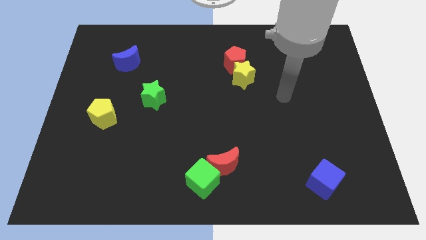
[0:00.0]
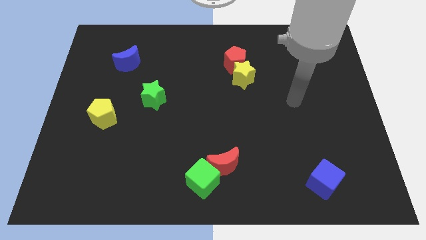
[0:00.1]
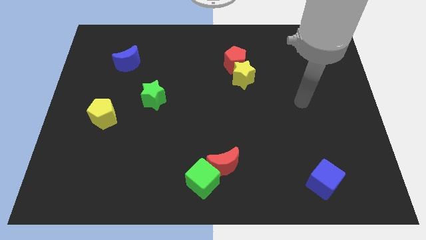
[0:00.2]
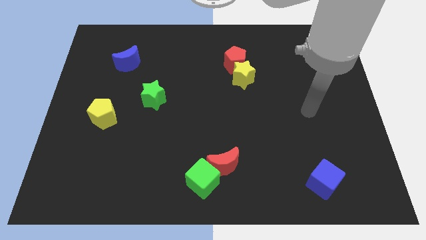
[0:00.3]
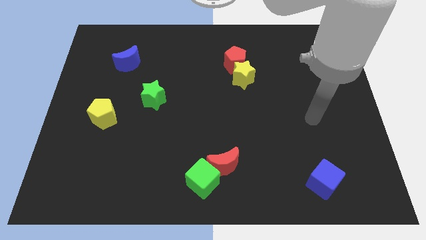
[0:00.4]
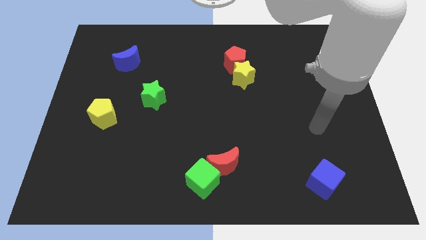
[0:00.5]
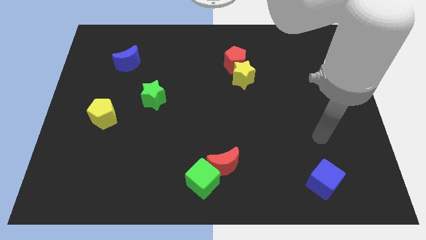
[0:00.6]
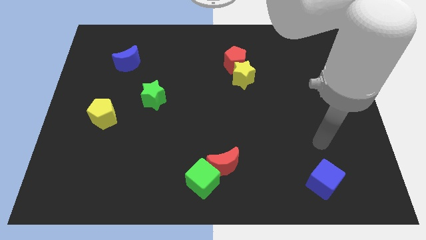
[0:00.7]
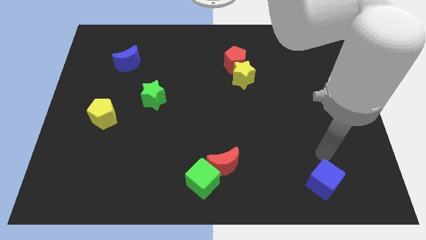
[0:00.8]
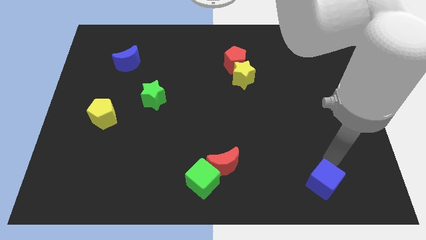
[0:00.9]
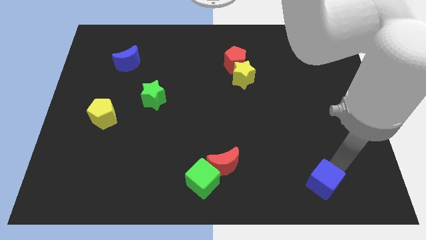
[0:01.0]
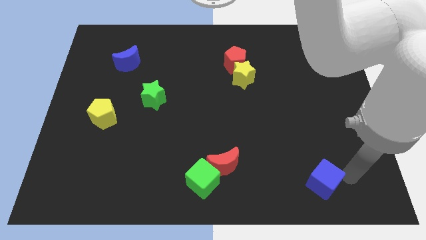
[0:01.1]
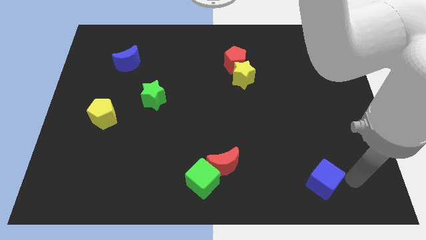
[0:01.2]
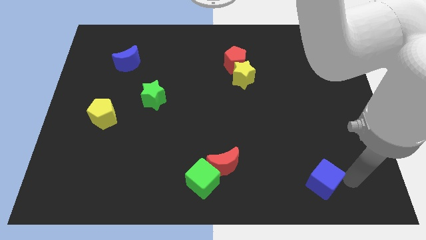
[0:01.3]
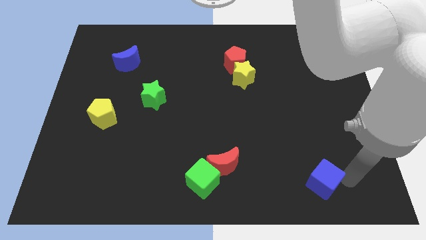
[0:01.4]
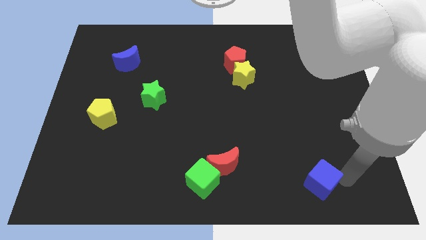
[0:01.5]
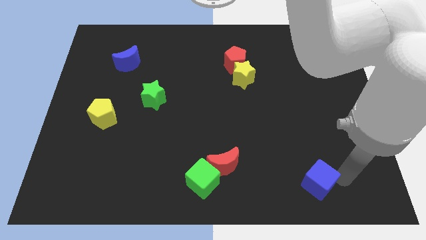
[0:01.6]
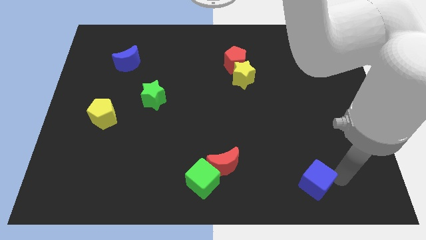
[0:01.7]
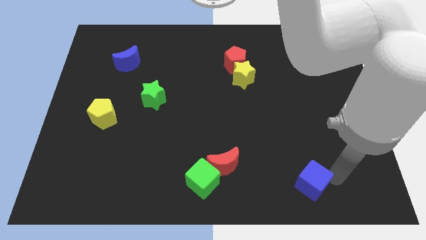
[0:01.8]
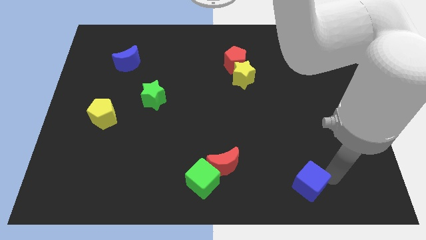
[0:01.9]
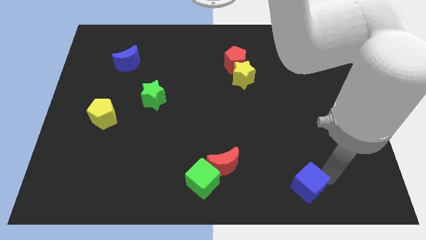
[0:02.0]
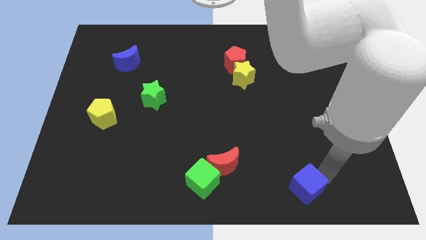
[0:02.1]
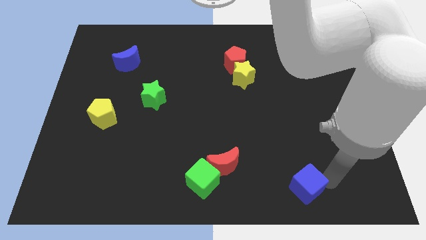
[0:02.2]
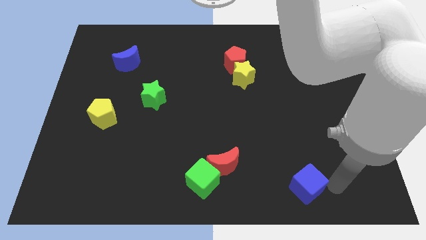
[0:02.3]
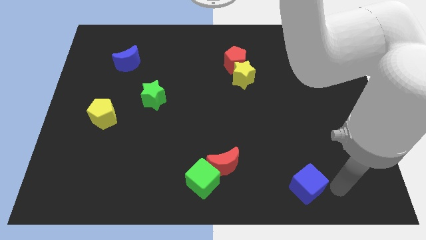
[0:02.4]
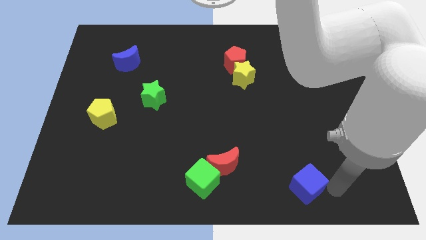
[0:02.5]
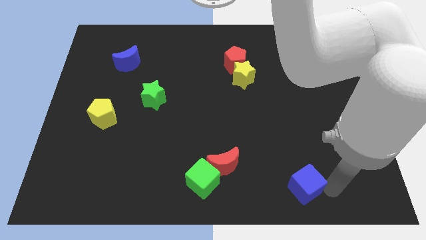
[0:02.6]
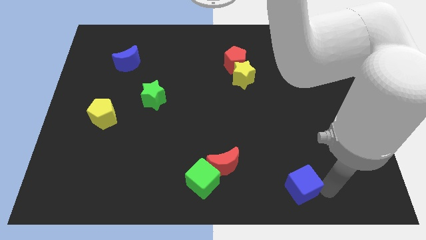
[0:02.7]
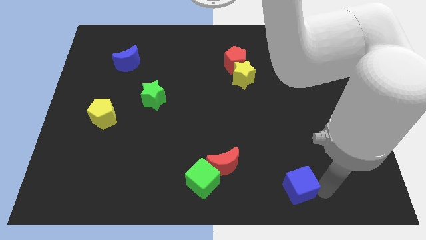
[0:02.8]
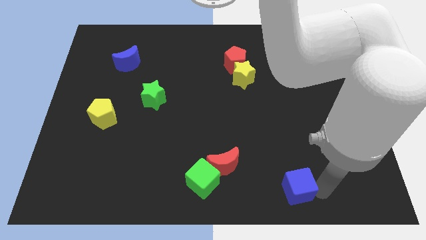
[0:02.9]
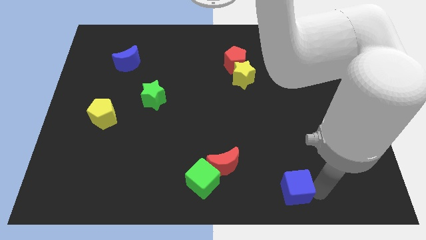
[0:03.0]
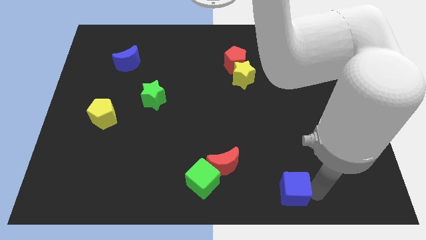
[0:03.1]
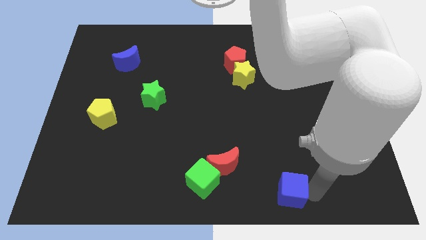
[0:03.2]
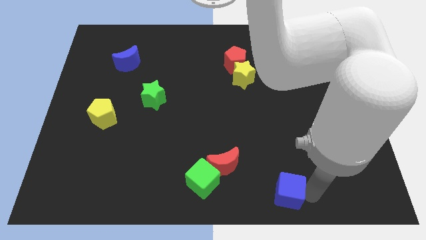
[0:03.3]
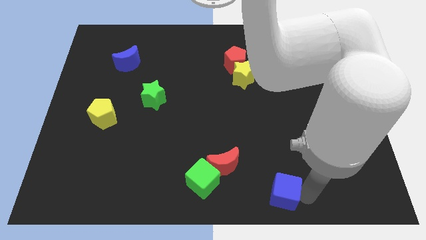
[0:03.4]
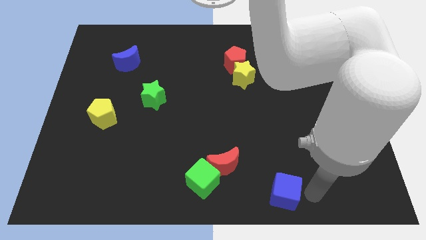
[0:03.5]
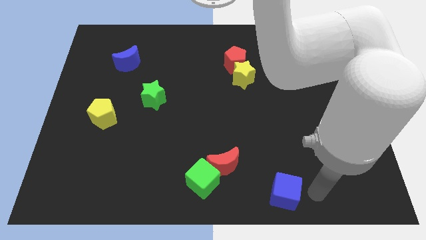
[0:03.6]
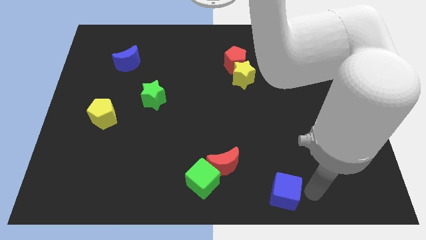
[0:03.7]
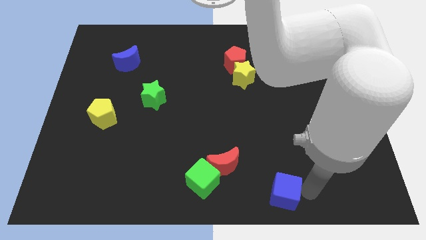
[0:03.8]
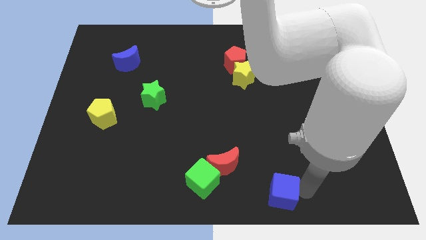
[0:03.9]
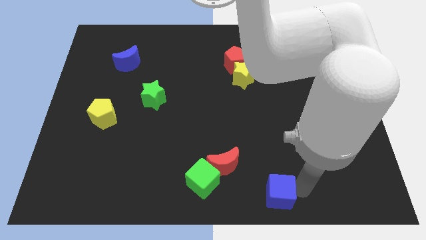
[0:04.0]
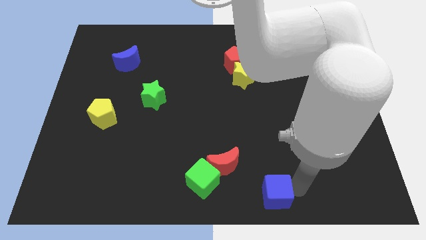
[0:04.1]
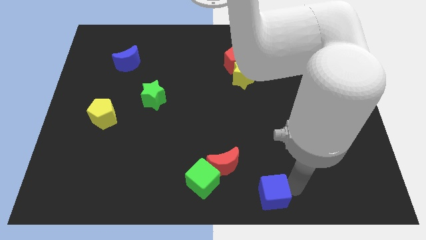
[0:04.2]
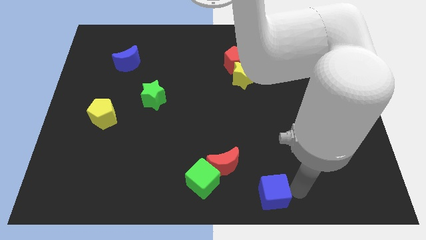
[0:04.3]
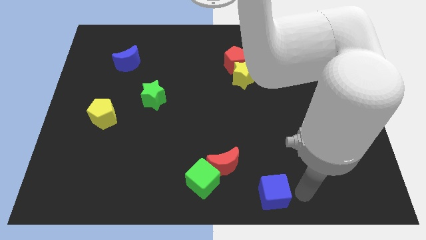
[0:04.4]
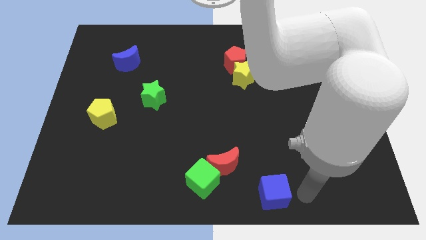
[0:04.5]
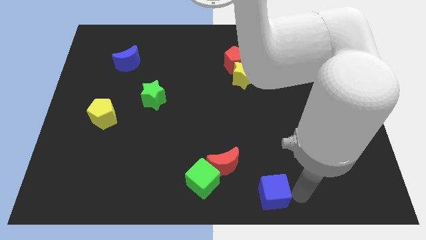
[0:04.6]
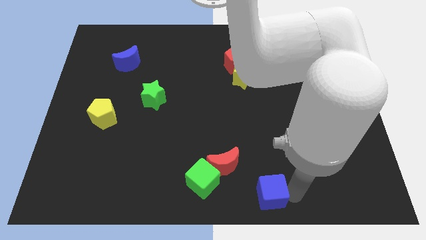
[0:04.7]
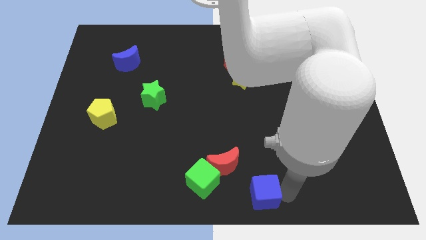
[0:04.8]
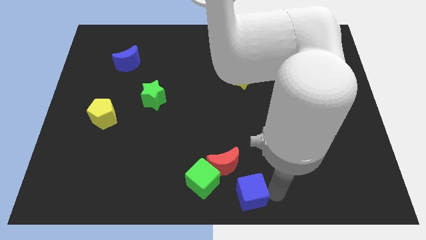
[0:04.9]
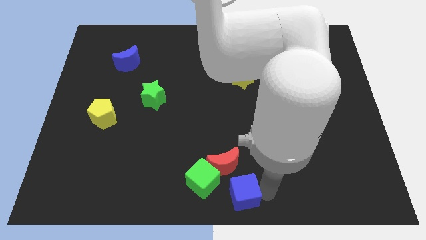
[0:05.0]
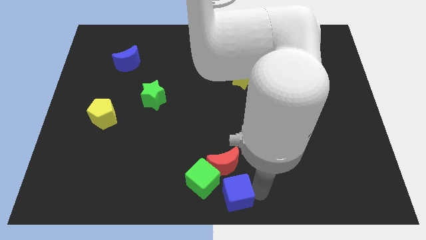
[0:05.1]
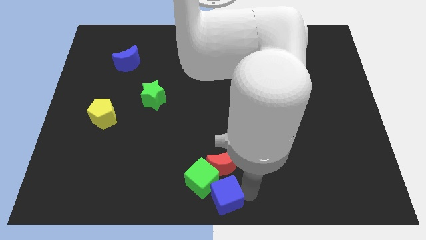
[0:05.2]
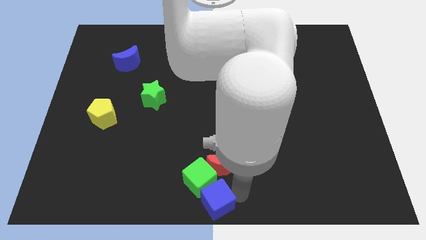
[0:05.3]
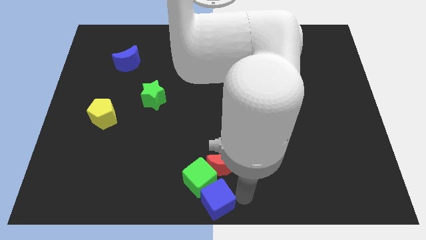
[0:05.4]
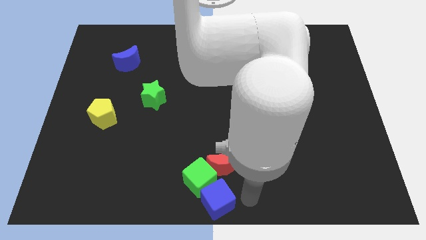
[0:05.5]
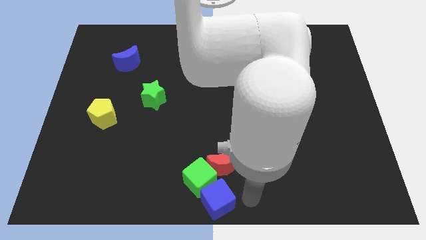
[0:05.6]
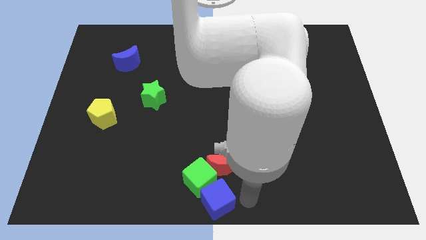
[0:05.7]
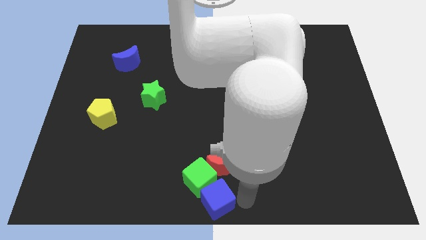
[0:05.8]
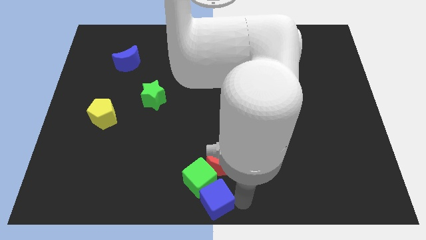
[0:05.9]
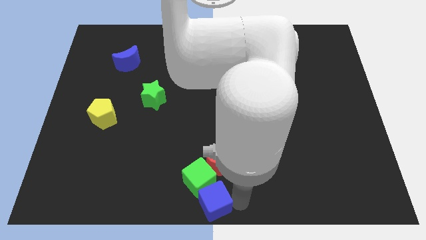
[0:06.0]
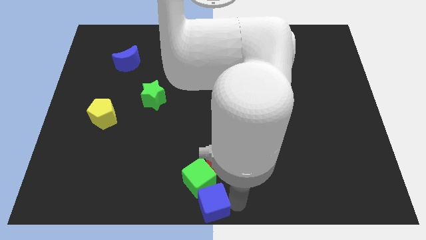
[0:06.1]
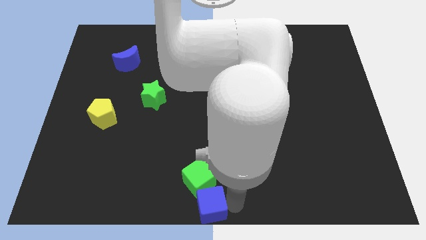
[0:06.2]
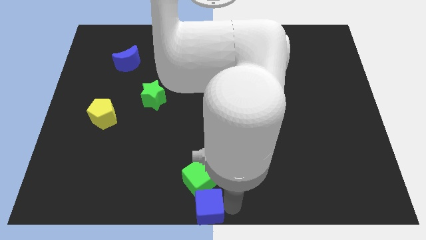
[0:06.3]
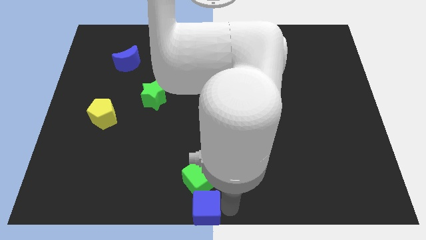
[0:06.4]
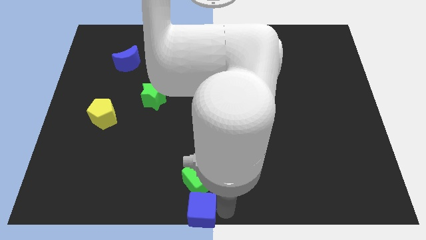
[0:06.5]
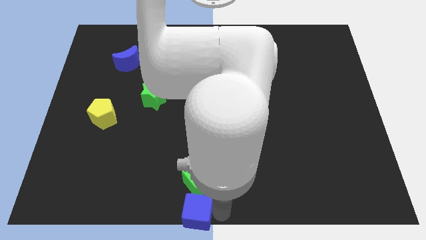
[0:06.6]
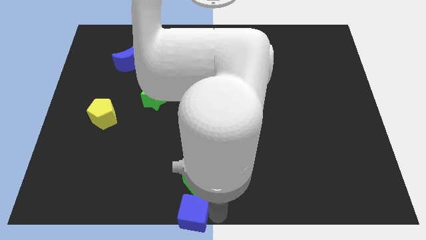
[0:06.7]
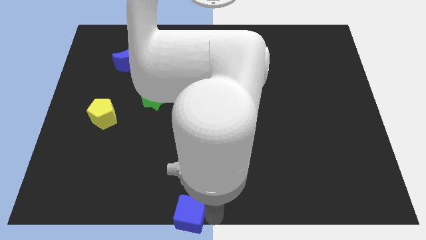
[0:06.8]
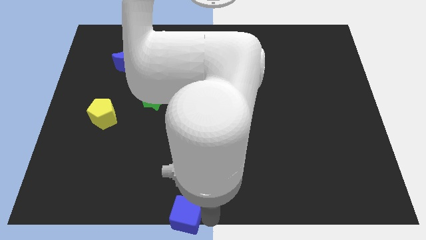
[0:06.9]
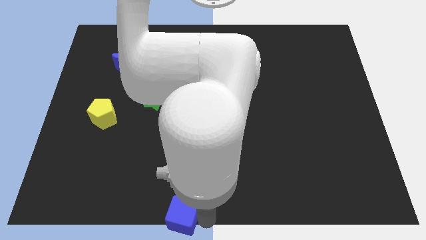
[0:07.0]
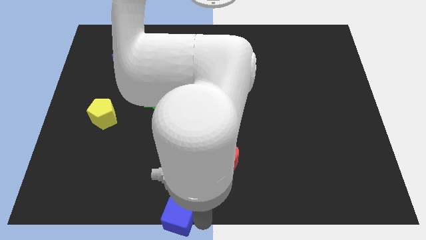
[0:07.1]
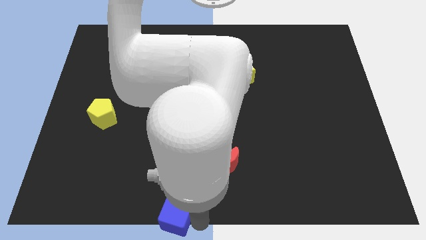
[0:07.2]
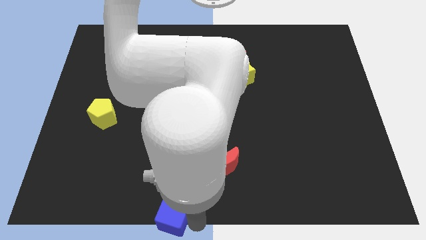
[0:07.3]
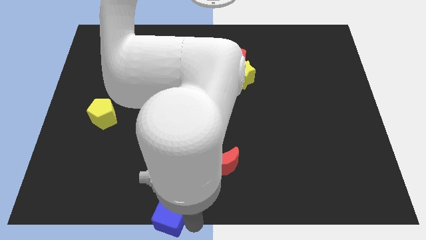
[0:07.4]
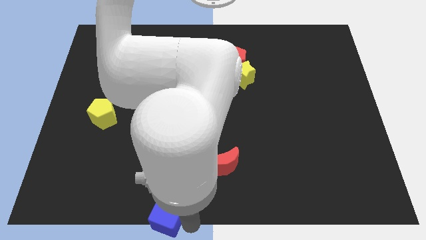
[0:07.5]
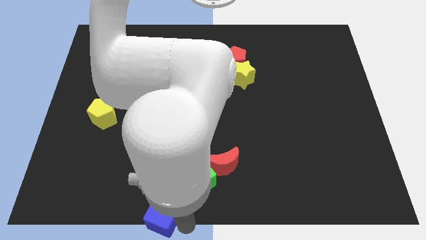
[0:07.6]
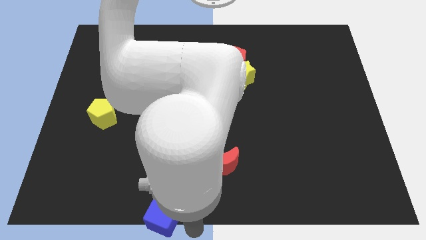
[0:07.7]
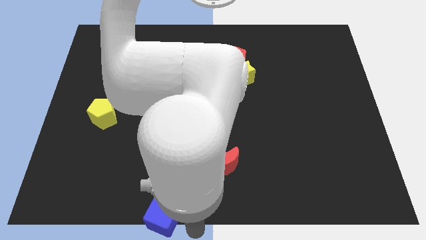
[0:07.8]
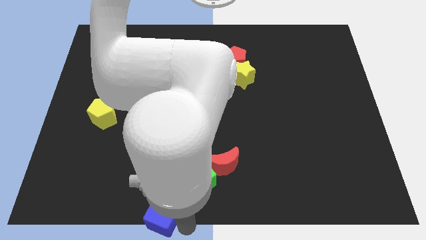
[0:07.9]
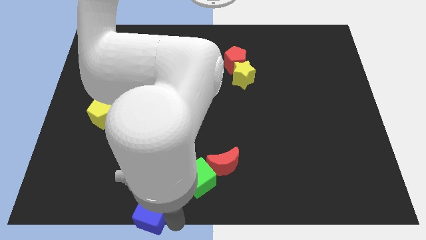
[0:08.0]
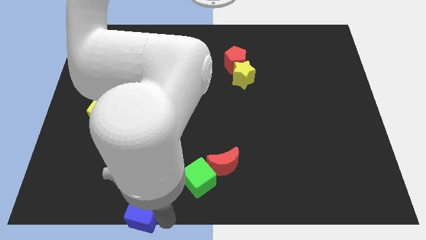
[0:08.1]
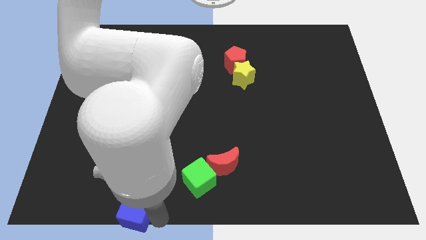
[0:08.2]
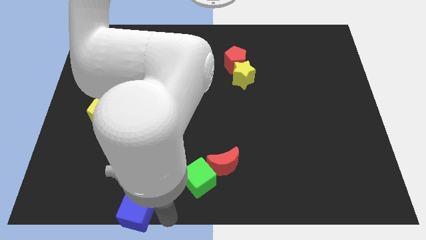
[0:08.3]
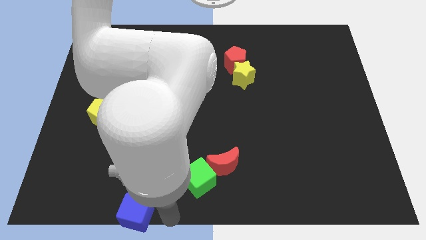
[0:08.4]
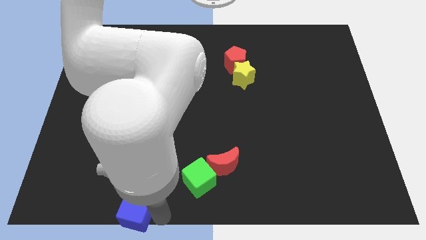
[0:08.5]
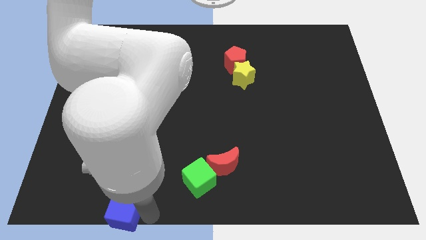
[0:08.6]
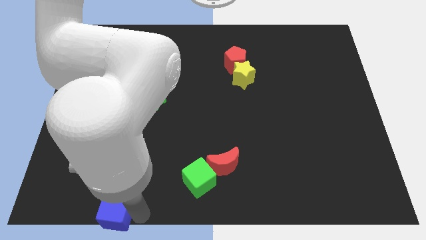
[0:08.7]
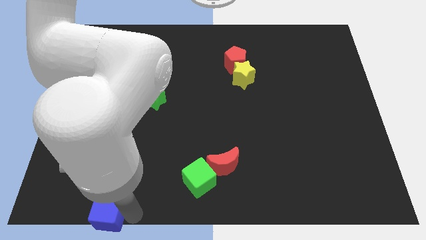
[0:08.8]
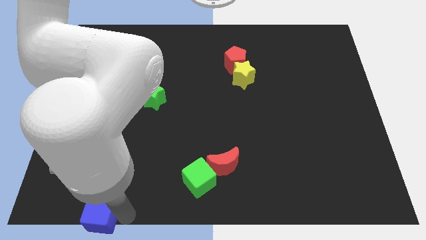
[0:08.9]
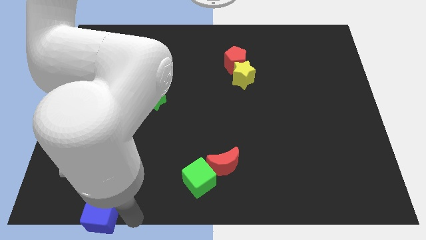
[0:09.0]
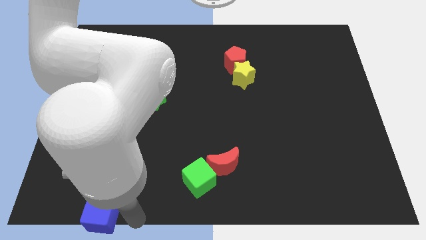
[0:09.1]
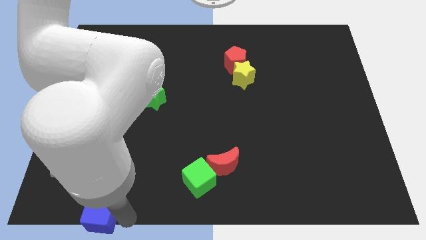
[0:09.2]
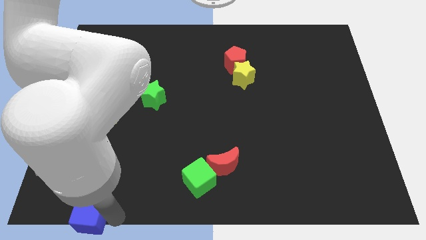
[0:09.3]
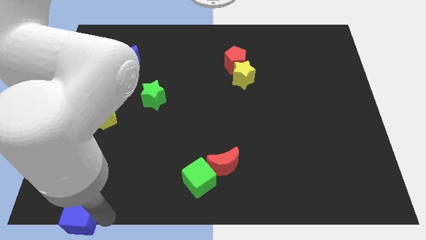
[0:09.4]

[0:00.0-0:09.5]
put the blue cube to the bottom left of the board
